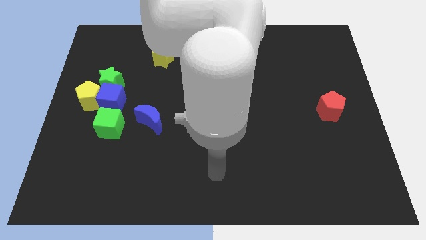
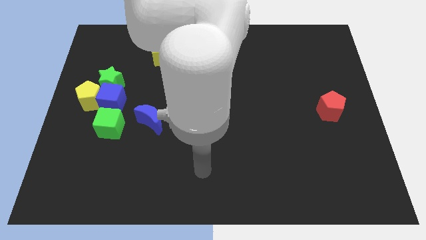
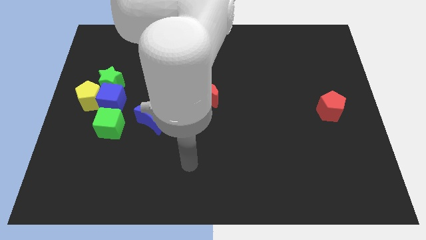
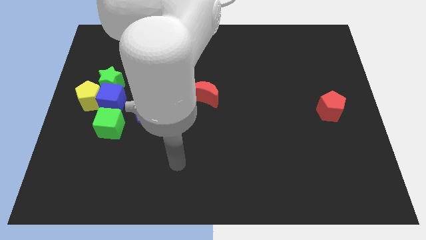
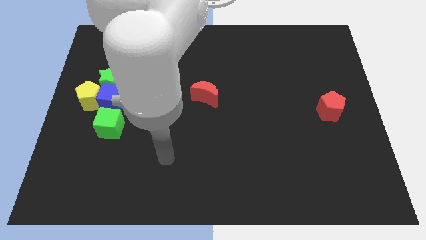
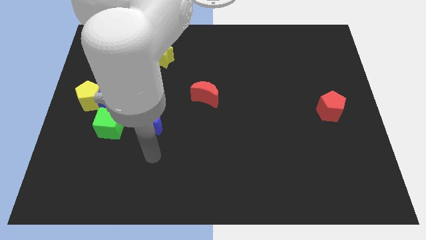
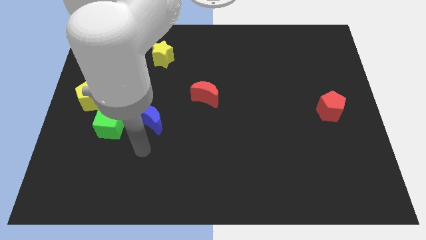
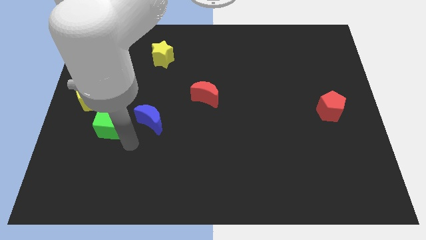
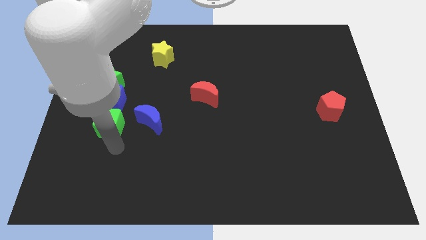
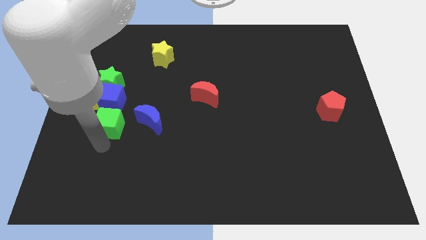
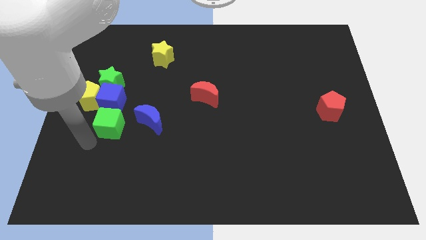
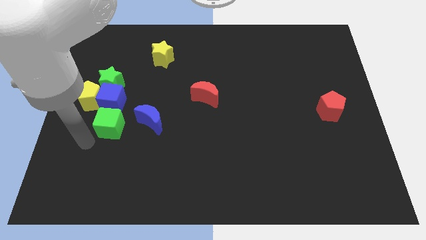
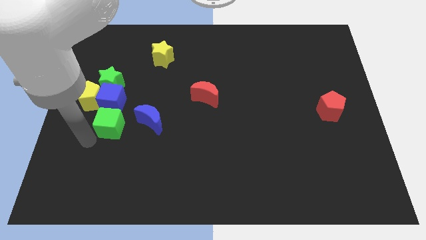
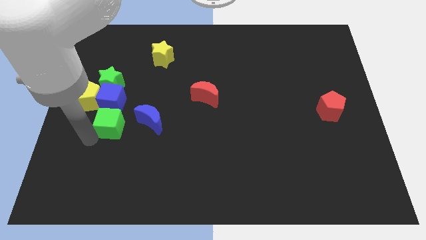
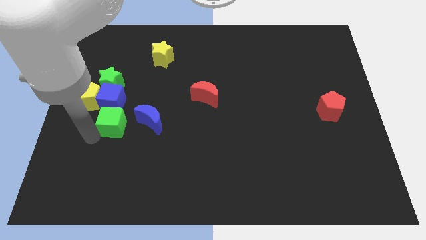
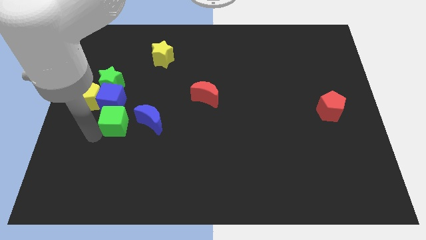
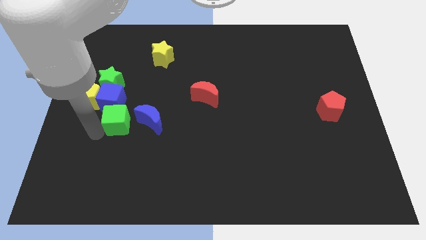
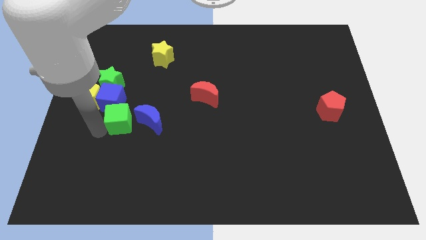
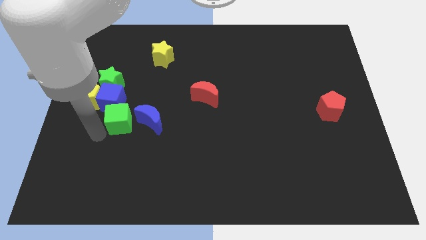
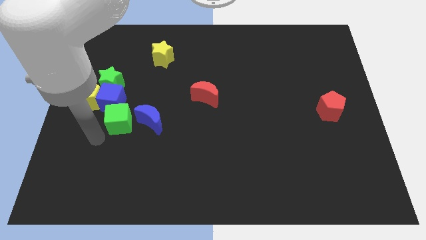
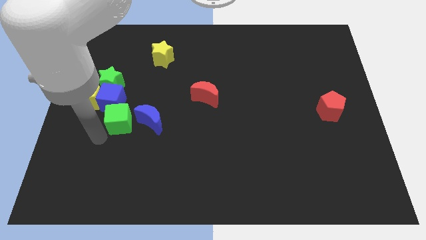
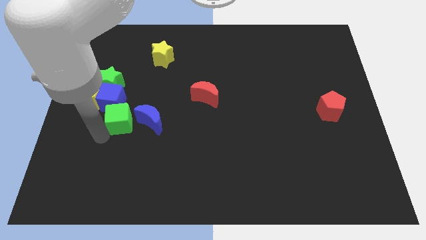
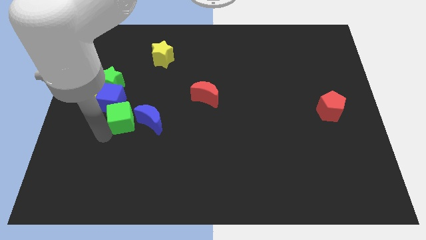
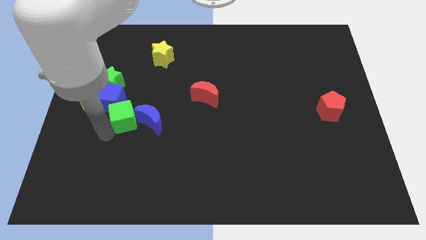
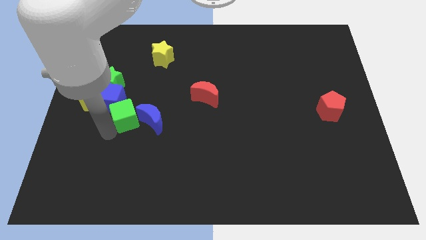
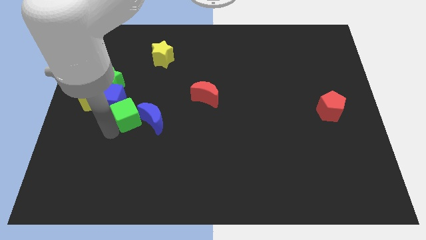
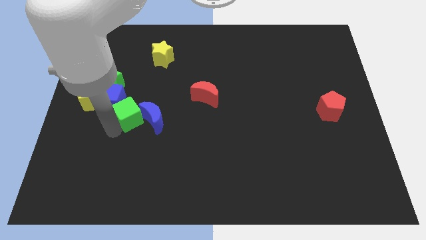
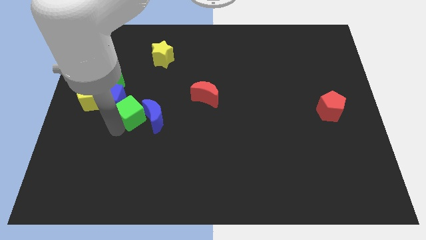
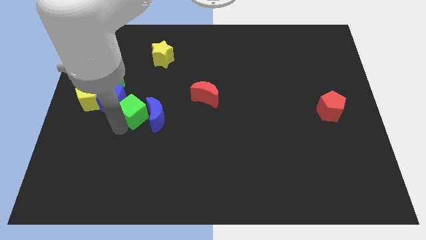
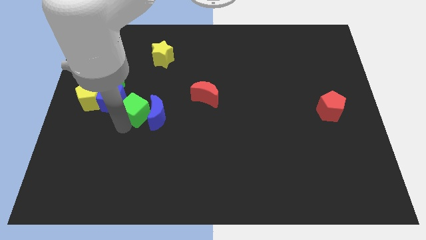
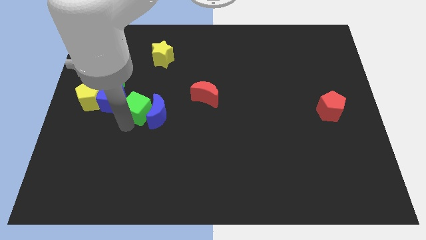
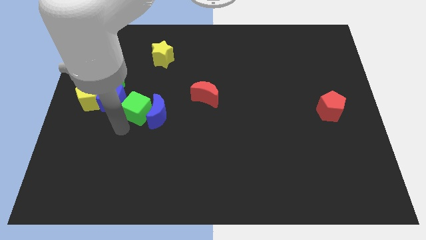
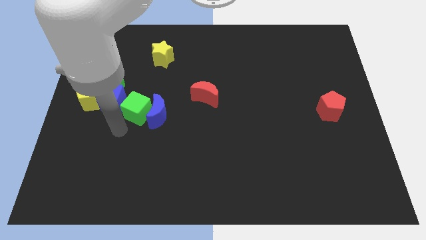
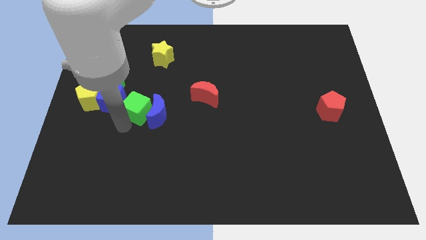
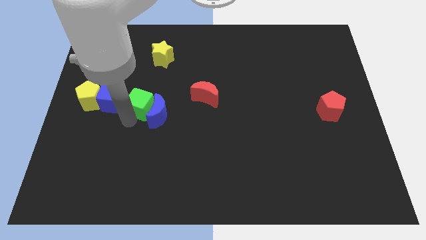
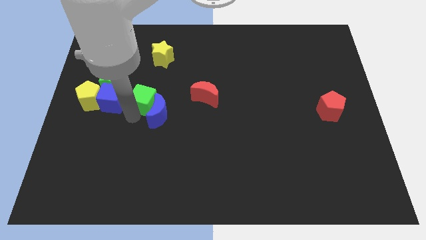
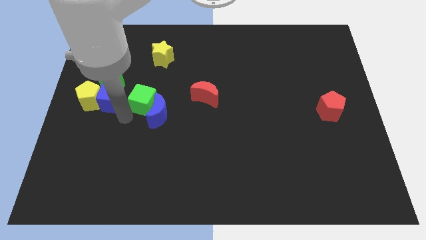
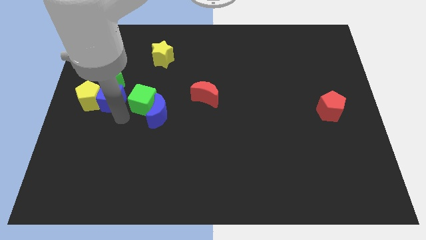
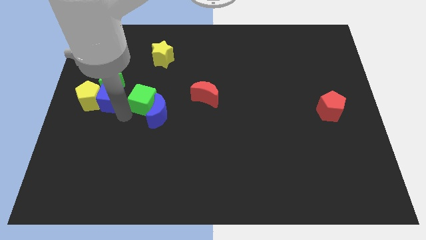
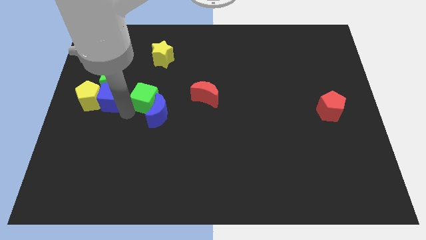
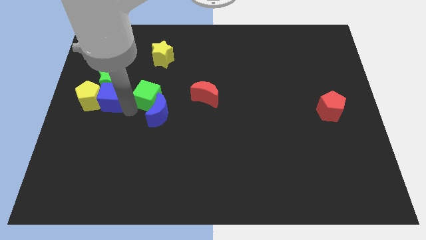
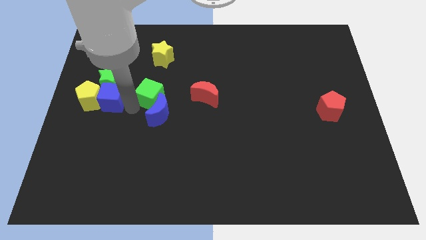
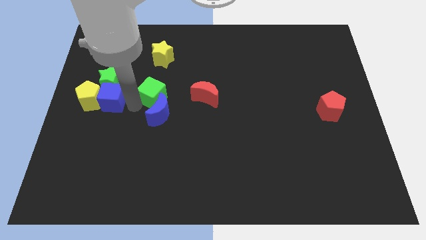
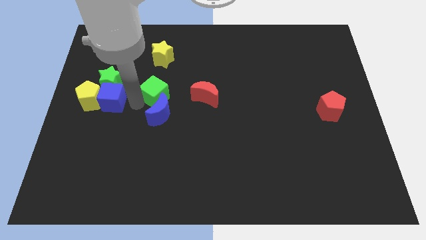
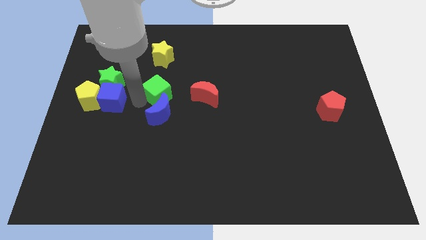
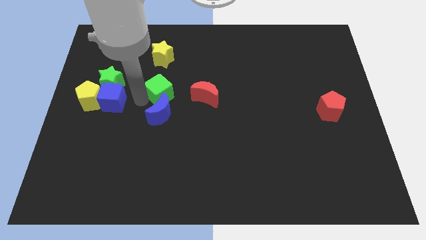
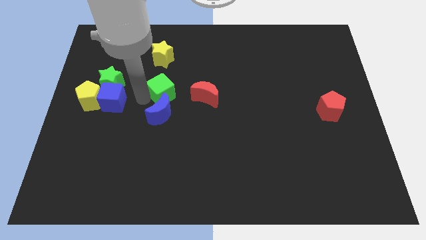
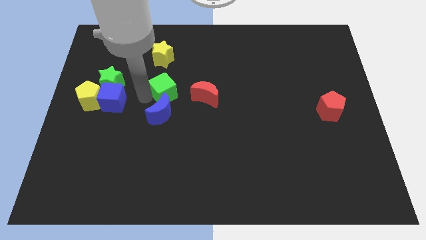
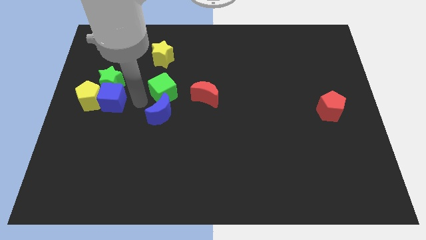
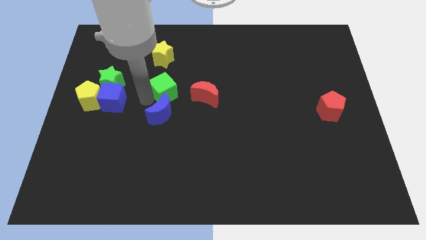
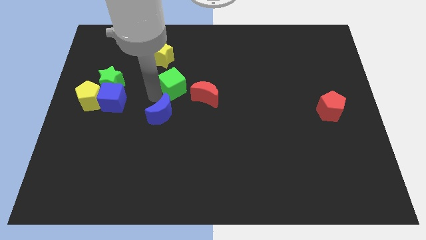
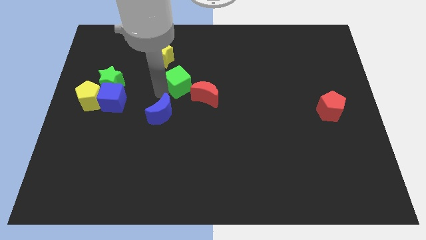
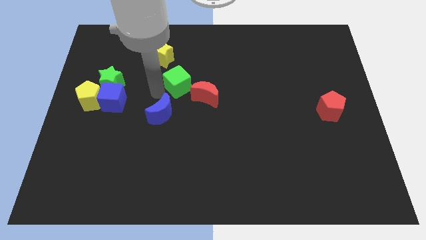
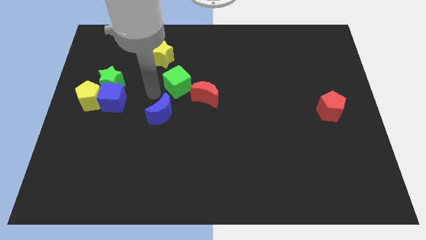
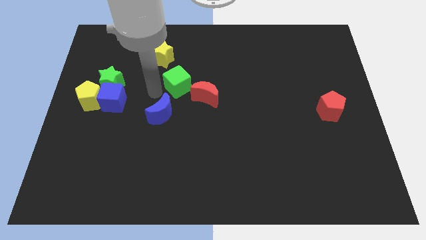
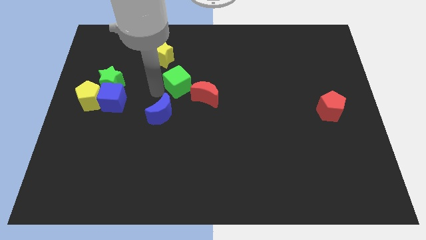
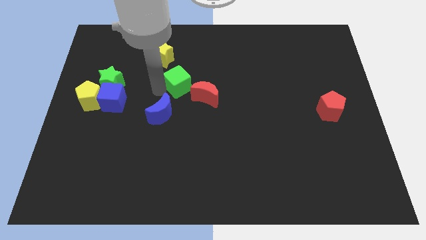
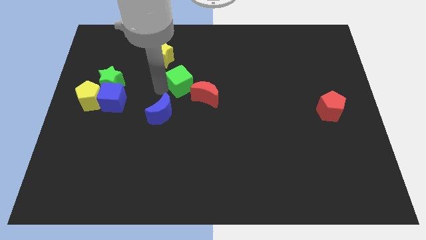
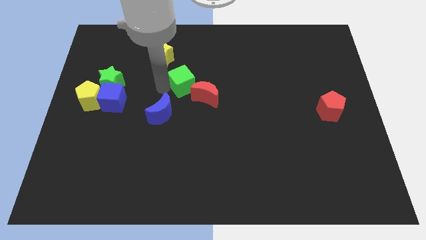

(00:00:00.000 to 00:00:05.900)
slide the green cube up and then right

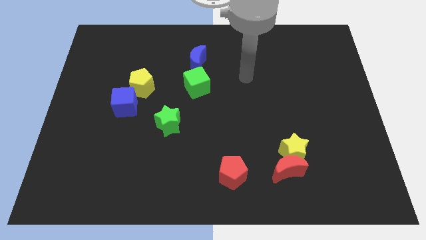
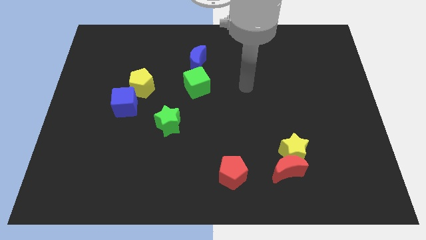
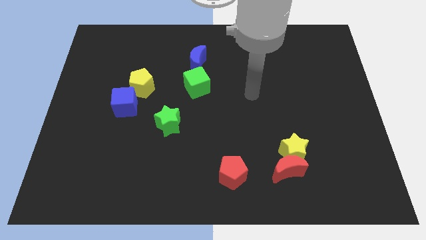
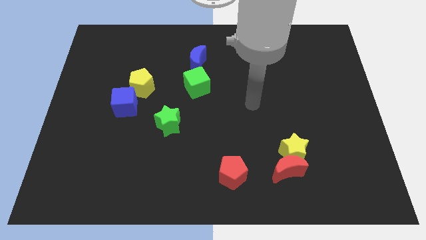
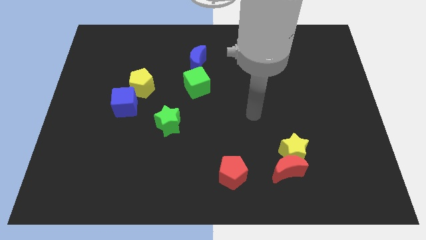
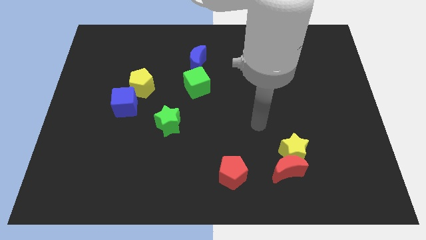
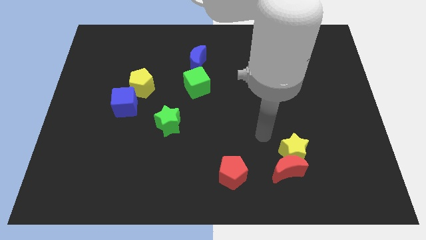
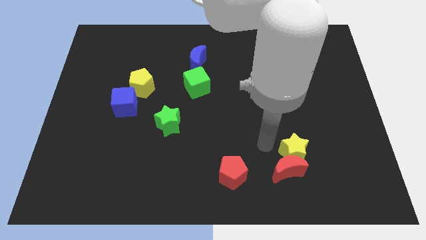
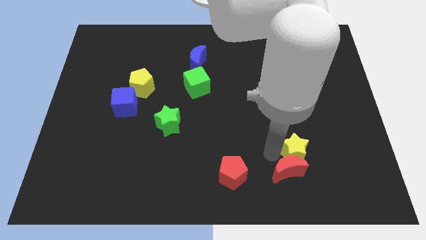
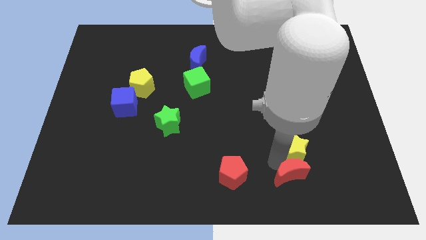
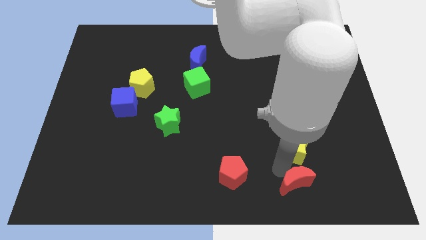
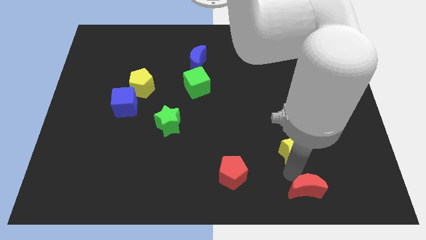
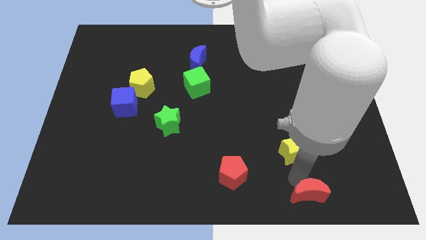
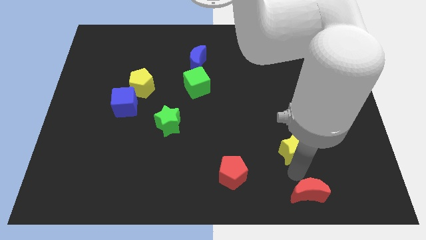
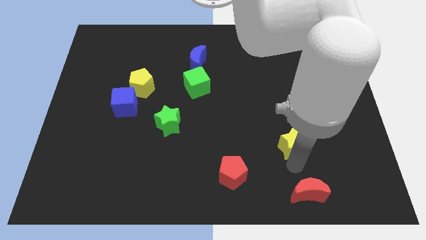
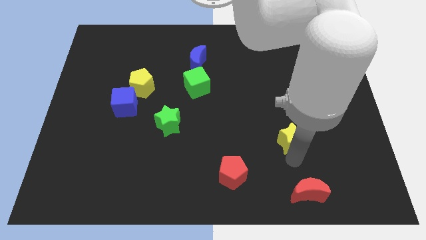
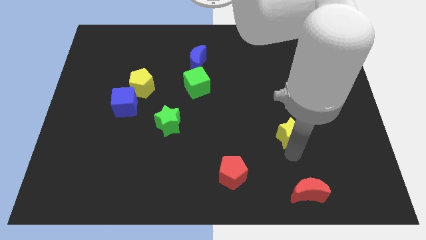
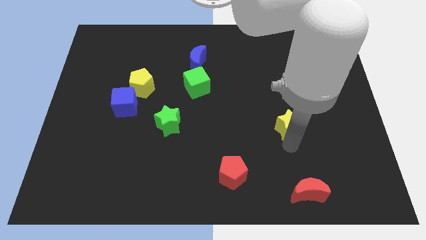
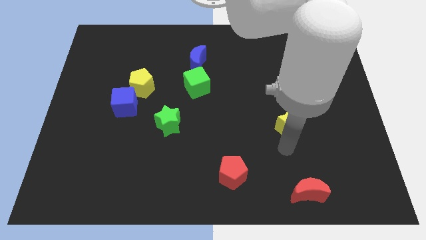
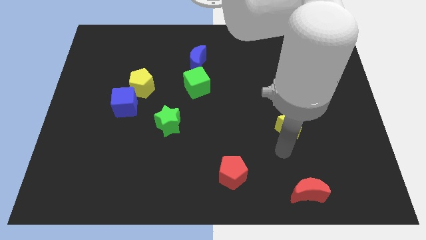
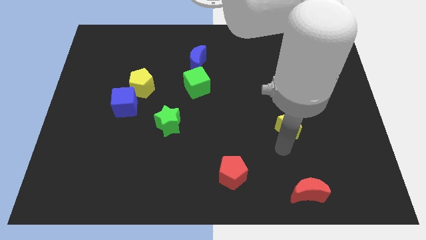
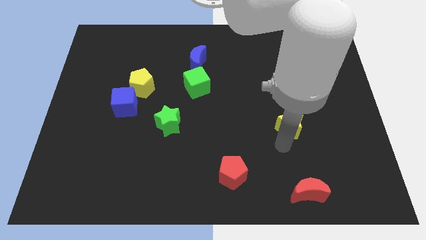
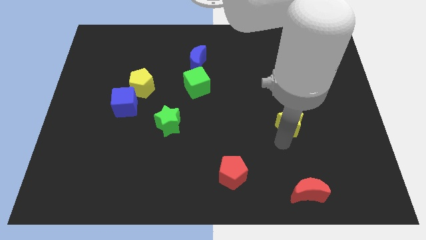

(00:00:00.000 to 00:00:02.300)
push the yellow star a little bit up
